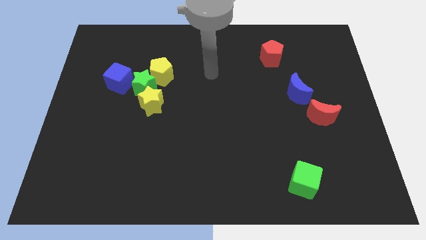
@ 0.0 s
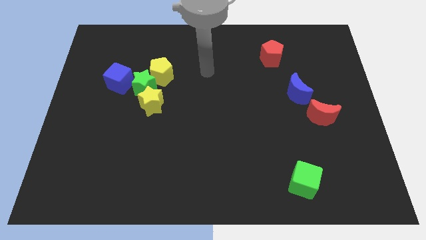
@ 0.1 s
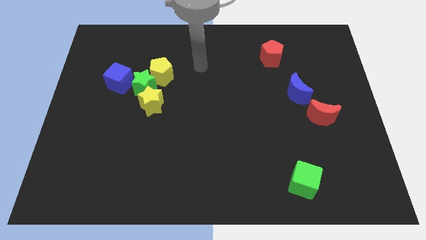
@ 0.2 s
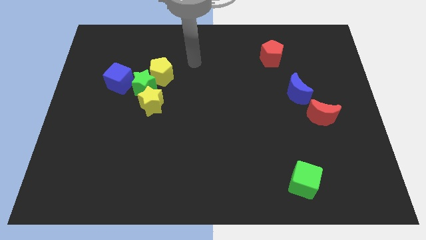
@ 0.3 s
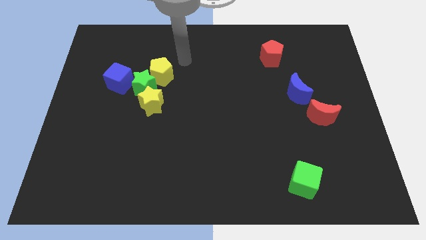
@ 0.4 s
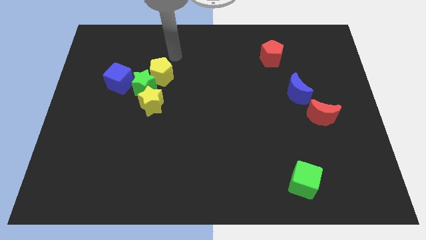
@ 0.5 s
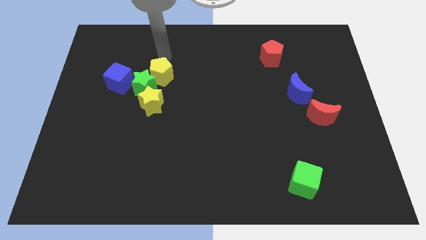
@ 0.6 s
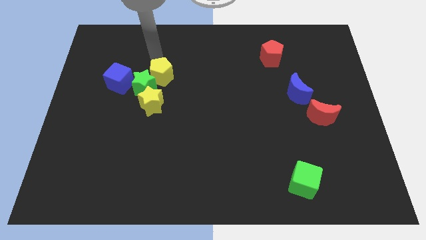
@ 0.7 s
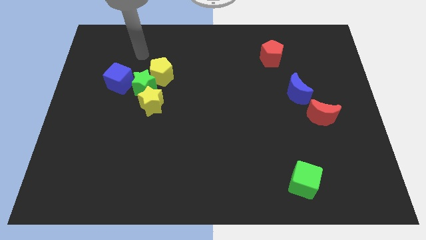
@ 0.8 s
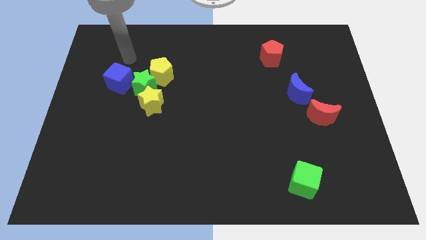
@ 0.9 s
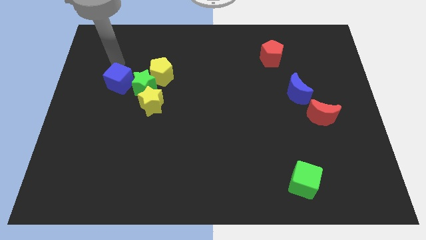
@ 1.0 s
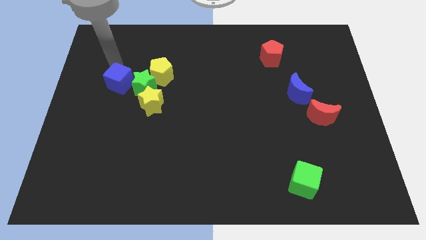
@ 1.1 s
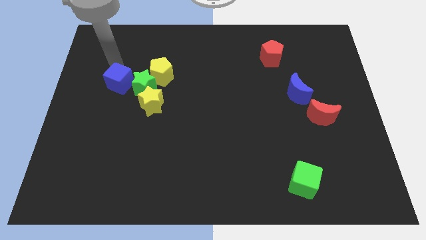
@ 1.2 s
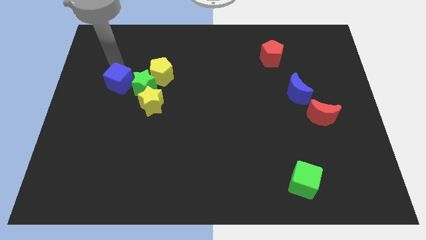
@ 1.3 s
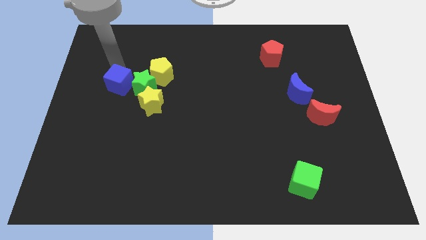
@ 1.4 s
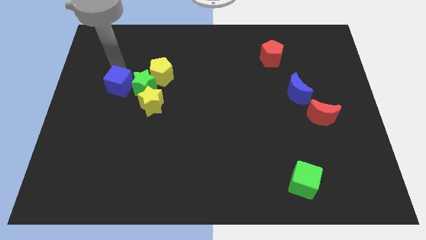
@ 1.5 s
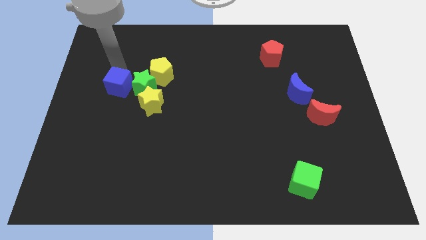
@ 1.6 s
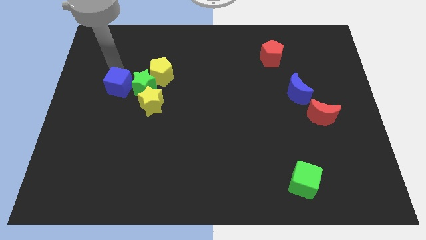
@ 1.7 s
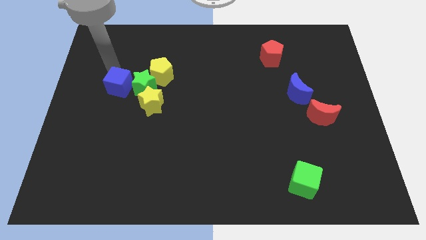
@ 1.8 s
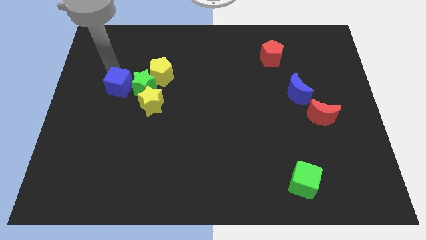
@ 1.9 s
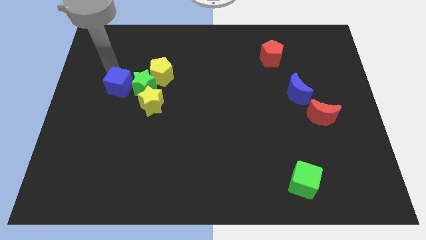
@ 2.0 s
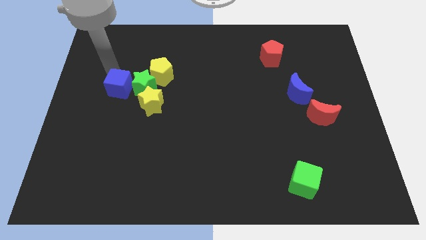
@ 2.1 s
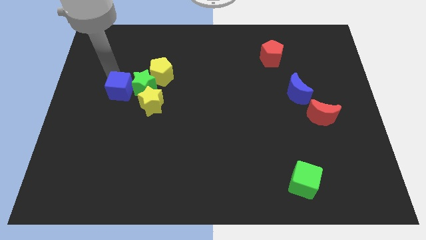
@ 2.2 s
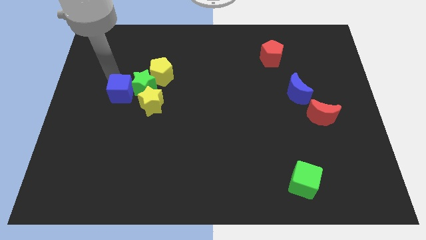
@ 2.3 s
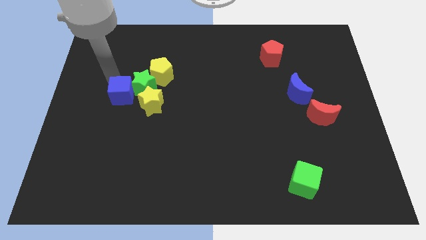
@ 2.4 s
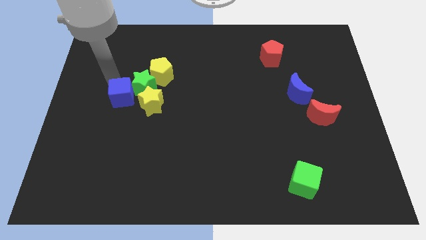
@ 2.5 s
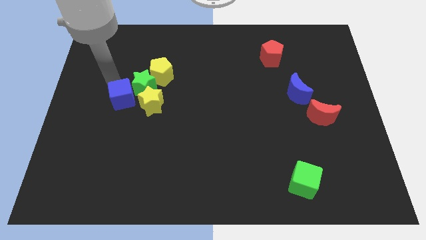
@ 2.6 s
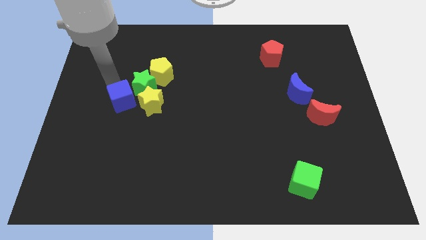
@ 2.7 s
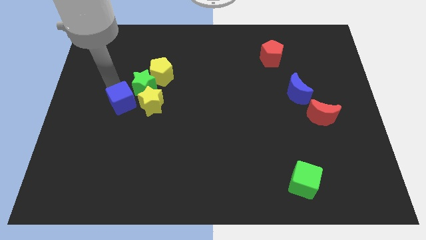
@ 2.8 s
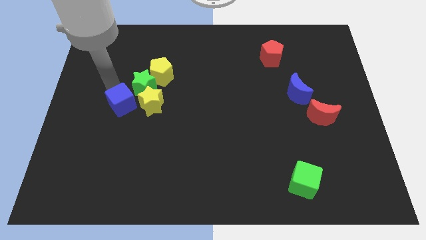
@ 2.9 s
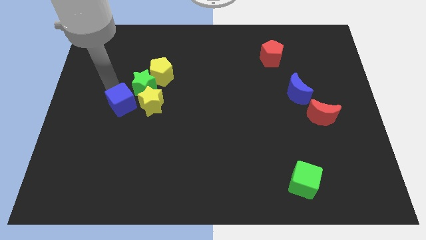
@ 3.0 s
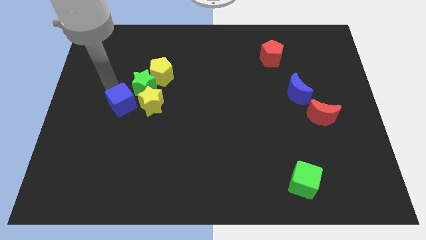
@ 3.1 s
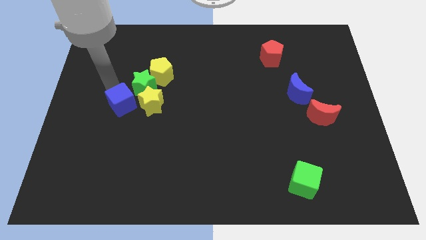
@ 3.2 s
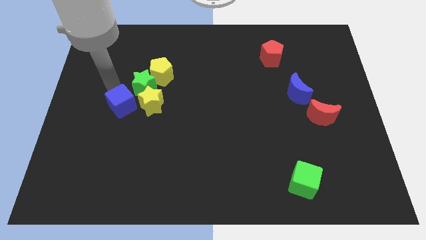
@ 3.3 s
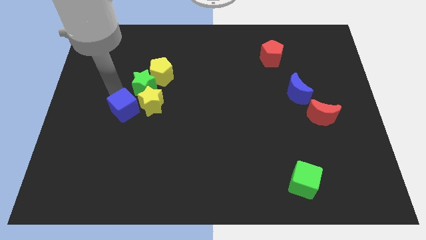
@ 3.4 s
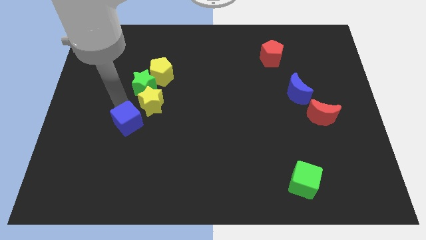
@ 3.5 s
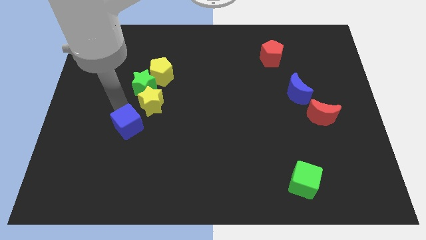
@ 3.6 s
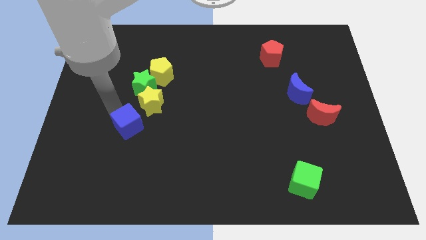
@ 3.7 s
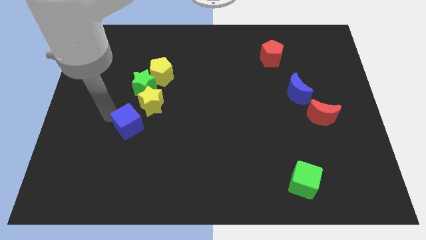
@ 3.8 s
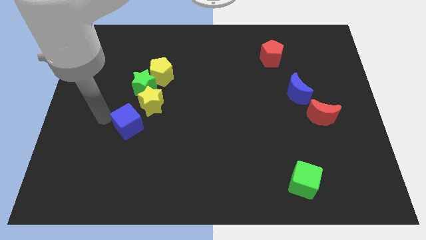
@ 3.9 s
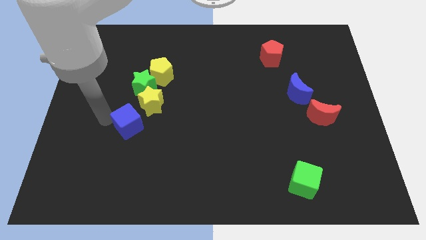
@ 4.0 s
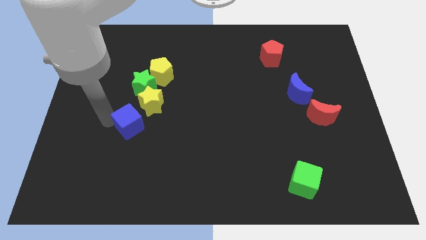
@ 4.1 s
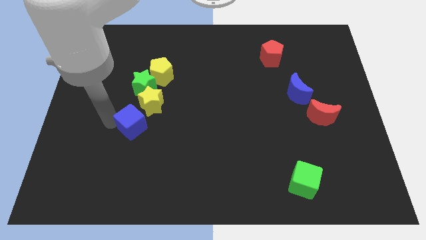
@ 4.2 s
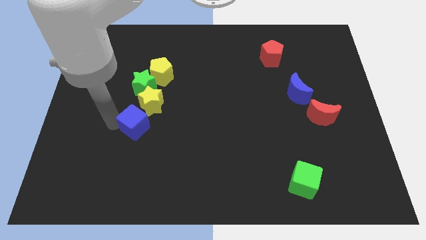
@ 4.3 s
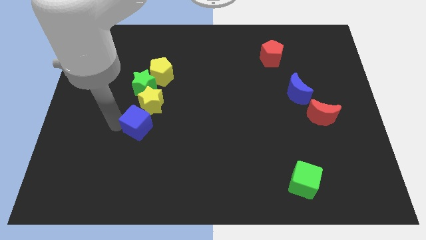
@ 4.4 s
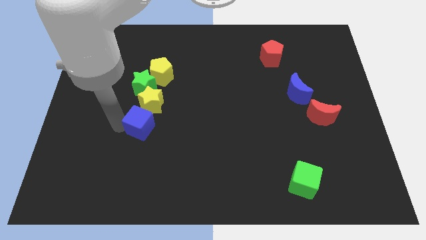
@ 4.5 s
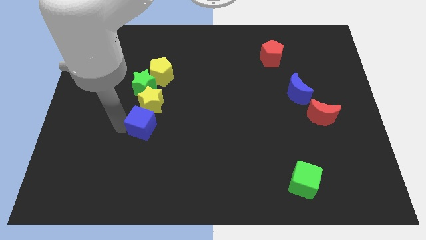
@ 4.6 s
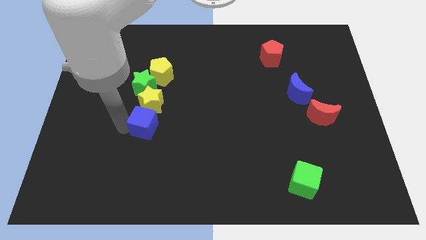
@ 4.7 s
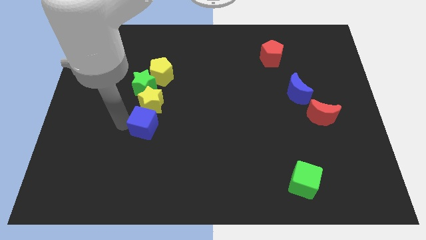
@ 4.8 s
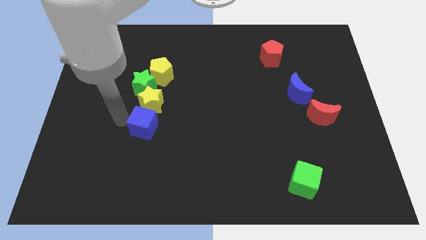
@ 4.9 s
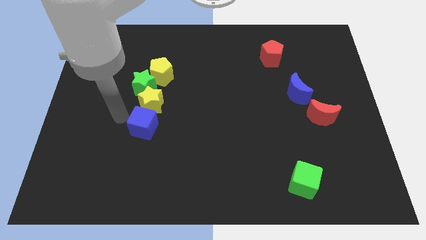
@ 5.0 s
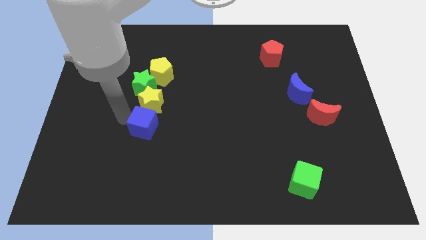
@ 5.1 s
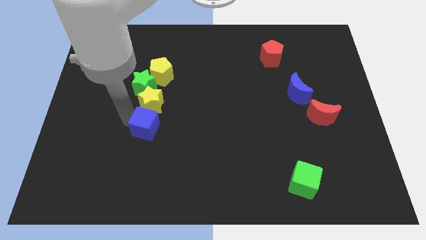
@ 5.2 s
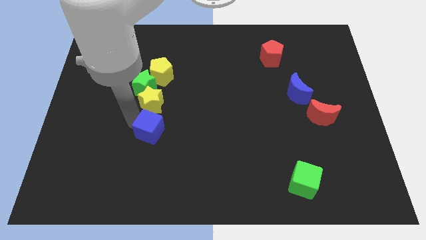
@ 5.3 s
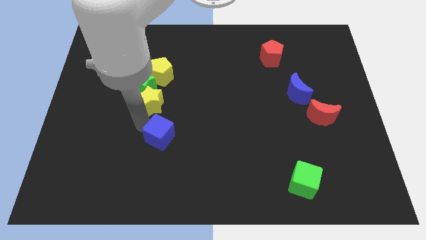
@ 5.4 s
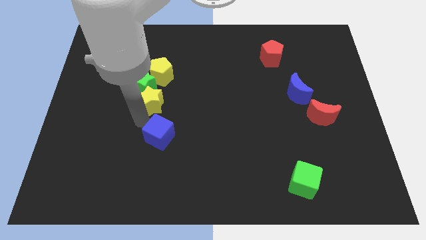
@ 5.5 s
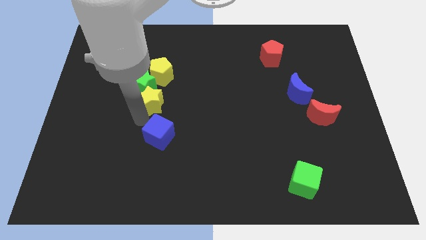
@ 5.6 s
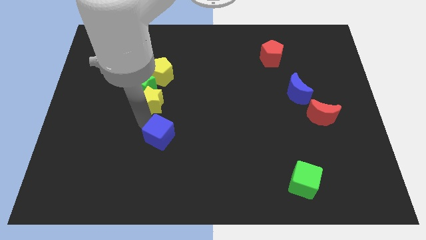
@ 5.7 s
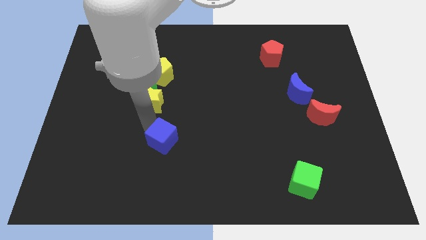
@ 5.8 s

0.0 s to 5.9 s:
move the blue cube diagonally downwards and right

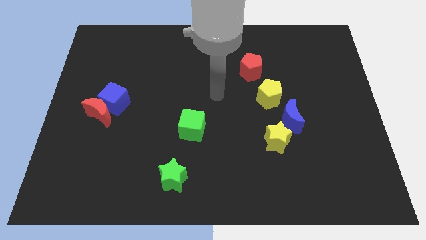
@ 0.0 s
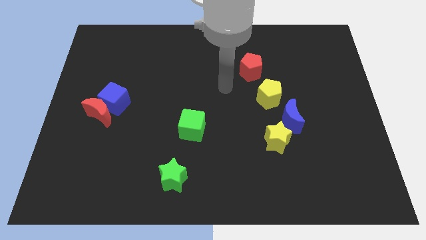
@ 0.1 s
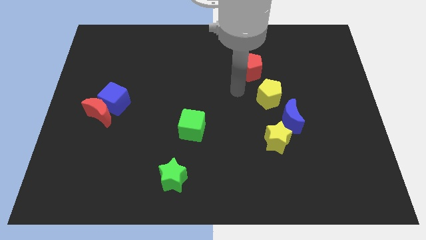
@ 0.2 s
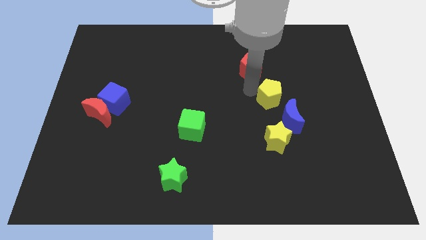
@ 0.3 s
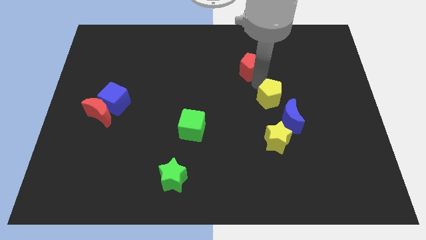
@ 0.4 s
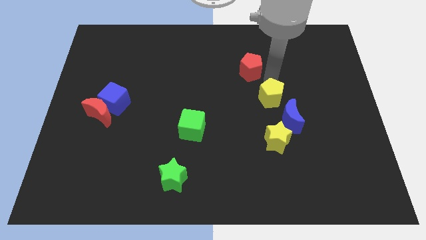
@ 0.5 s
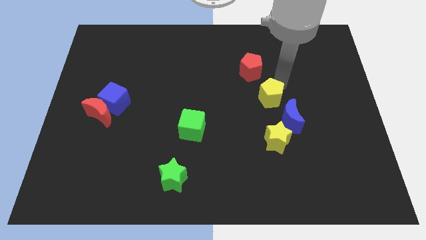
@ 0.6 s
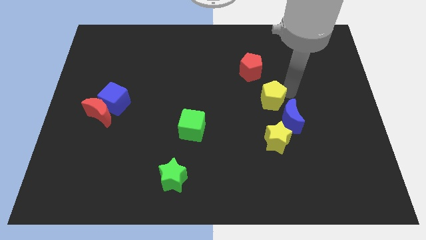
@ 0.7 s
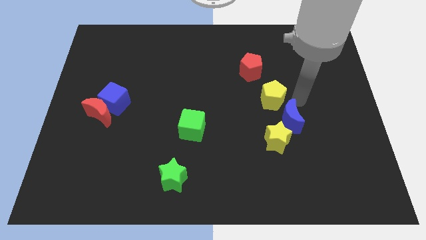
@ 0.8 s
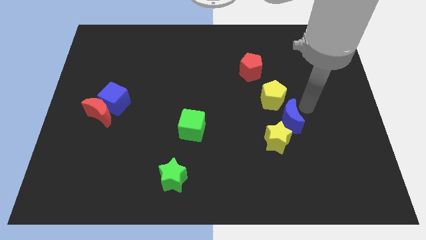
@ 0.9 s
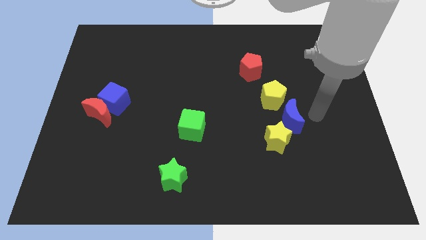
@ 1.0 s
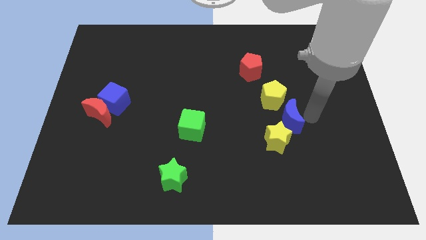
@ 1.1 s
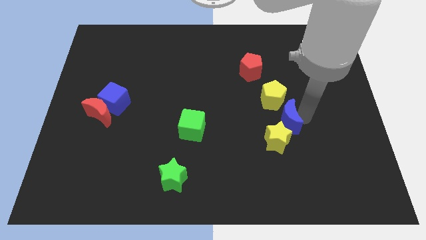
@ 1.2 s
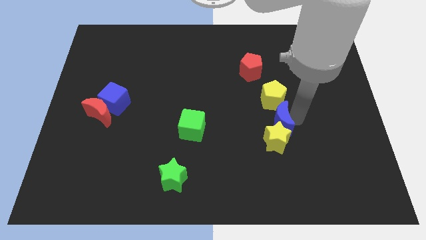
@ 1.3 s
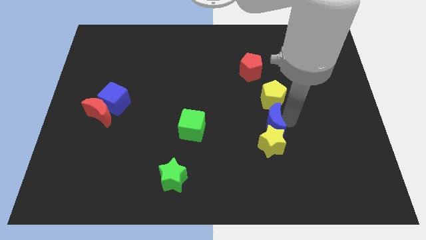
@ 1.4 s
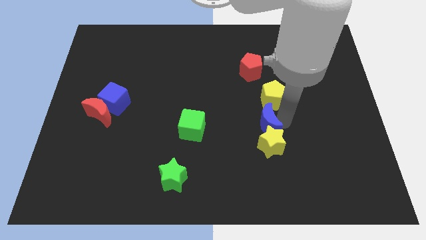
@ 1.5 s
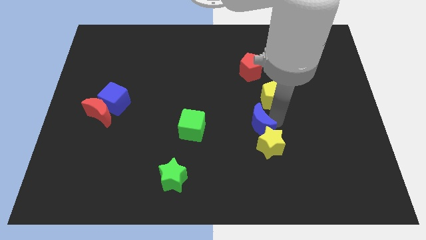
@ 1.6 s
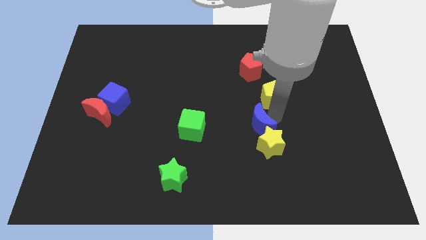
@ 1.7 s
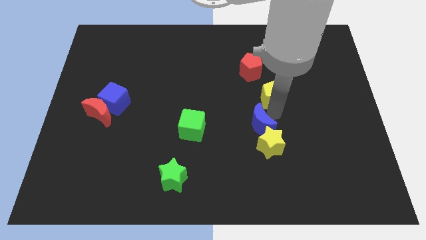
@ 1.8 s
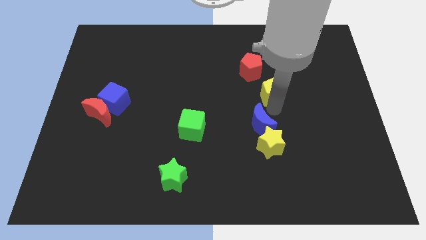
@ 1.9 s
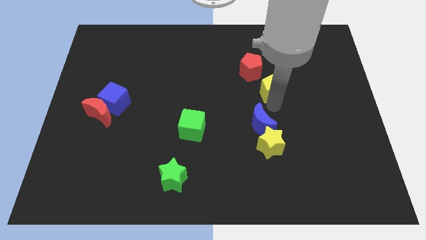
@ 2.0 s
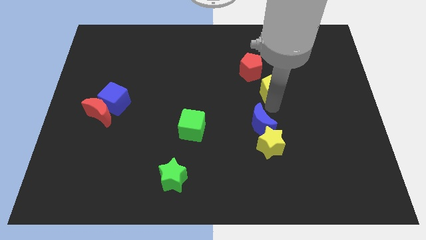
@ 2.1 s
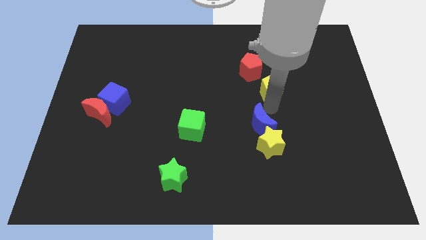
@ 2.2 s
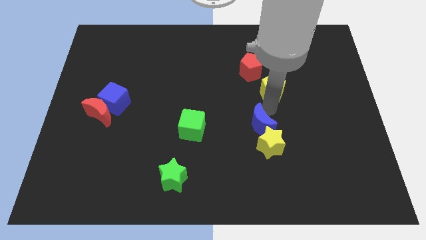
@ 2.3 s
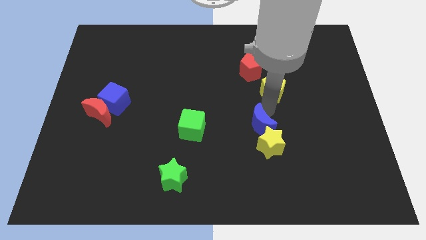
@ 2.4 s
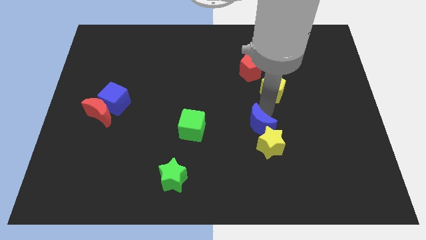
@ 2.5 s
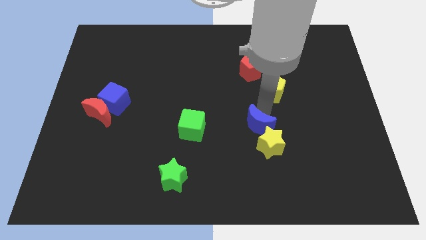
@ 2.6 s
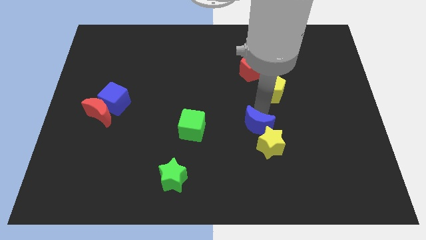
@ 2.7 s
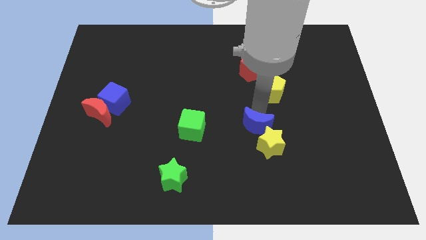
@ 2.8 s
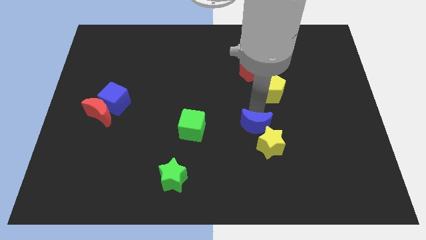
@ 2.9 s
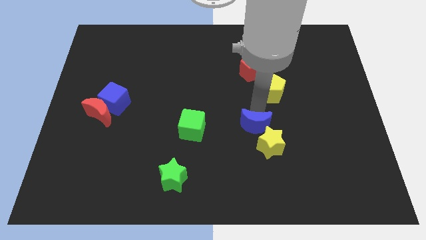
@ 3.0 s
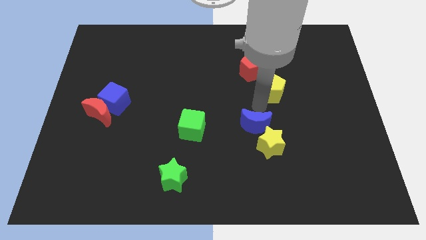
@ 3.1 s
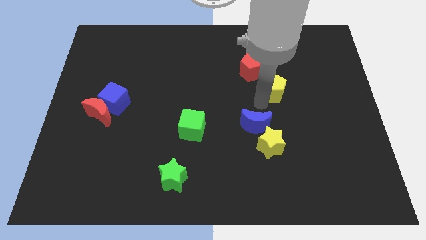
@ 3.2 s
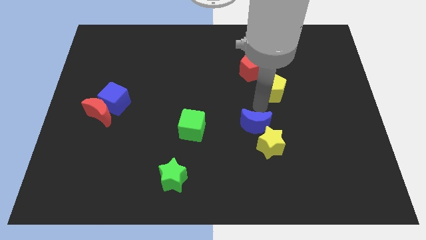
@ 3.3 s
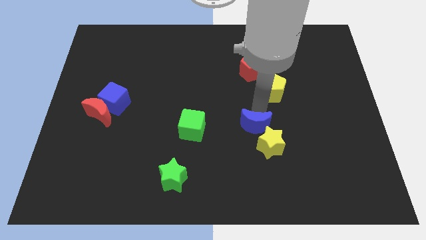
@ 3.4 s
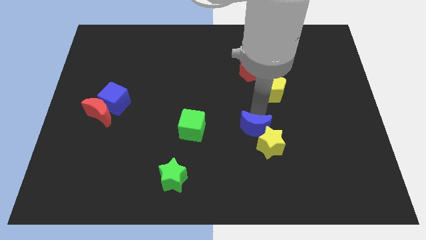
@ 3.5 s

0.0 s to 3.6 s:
slightly slide the blue moon down and to the left
